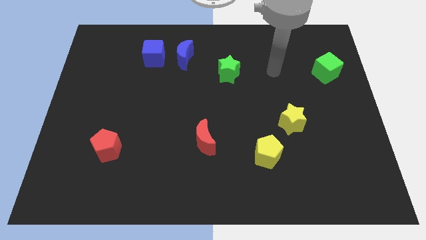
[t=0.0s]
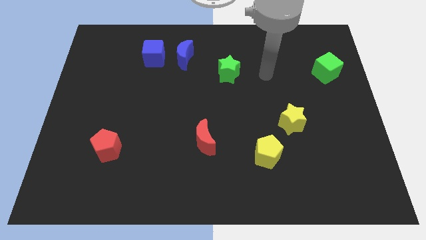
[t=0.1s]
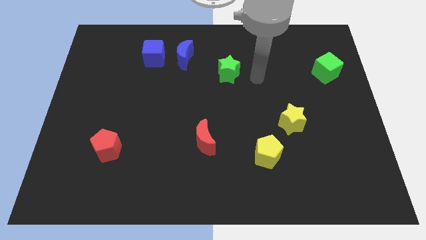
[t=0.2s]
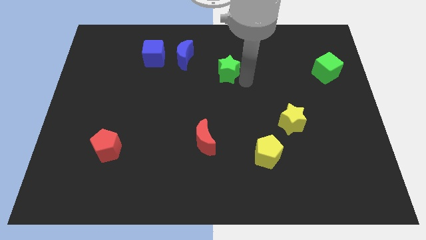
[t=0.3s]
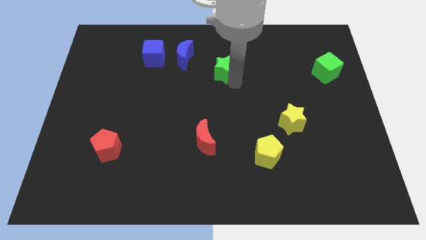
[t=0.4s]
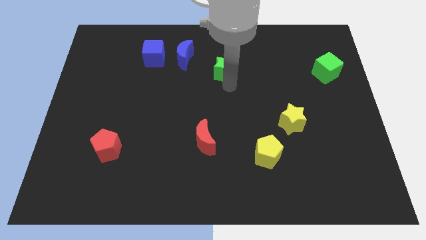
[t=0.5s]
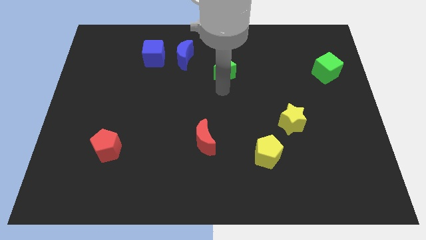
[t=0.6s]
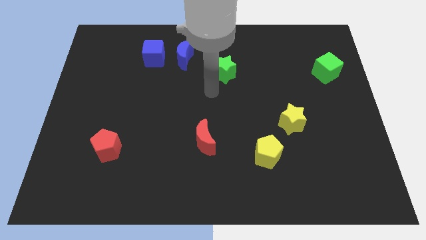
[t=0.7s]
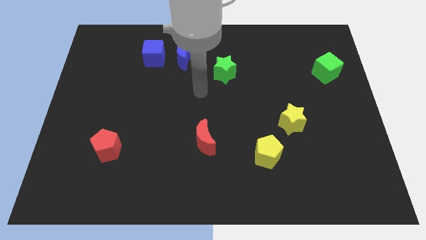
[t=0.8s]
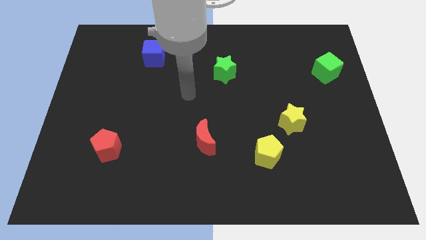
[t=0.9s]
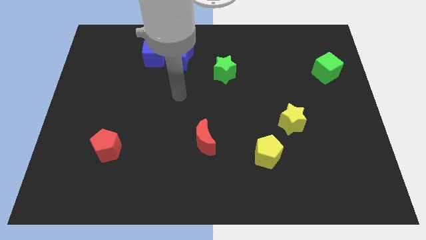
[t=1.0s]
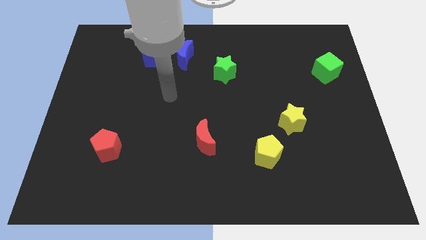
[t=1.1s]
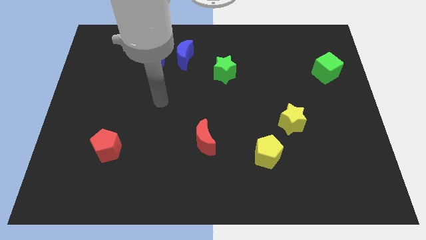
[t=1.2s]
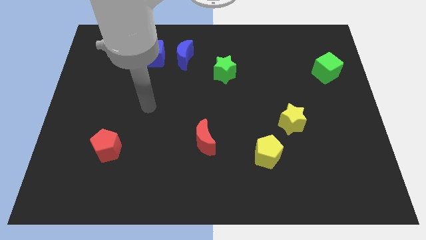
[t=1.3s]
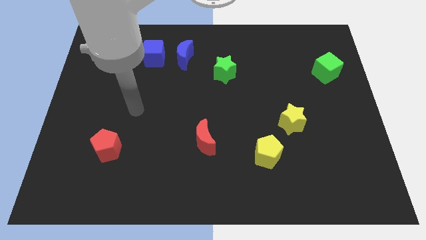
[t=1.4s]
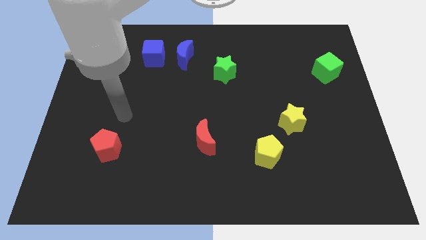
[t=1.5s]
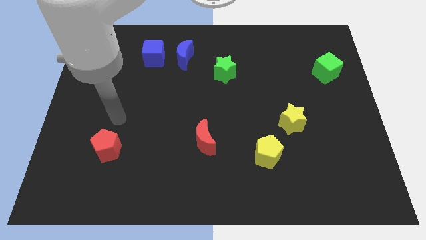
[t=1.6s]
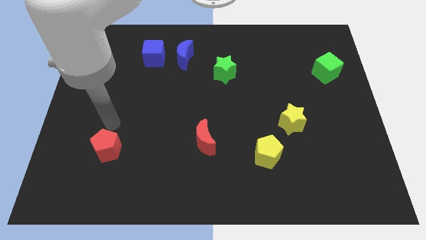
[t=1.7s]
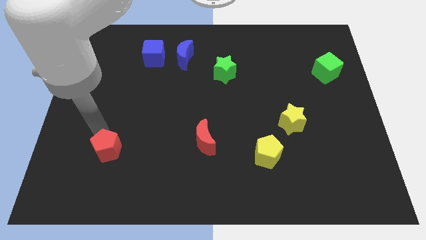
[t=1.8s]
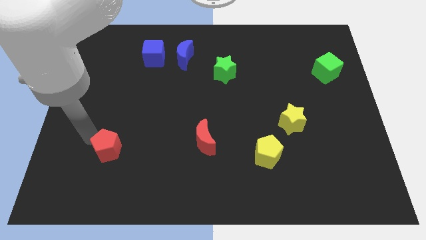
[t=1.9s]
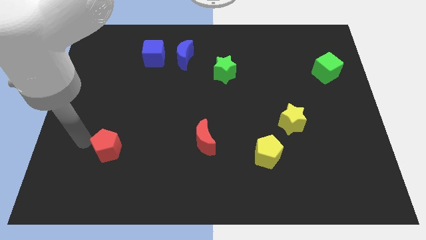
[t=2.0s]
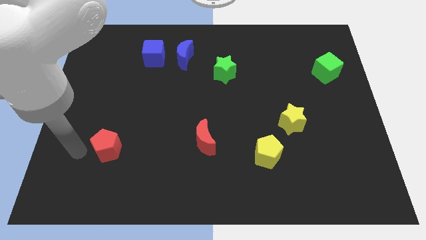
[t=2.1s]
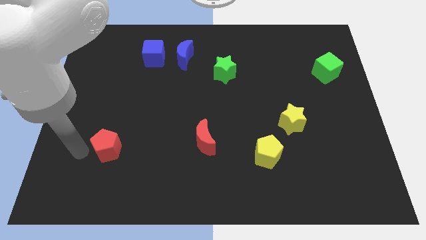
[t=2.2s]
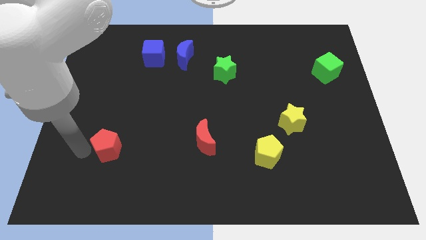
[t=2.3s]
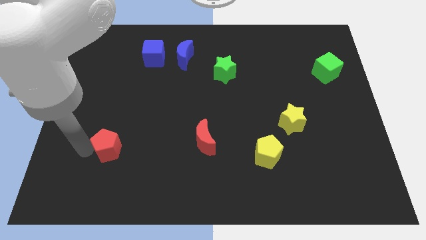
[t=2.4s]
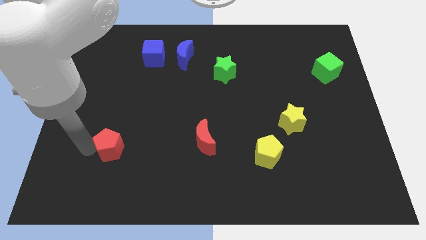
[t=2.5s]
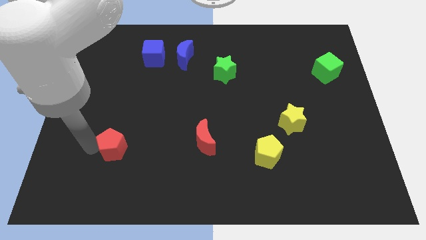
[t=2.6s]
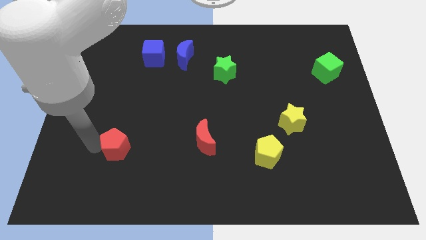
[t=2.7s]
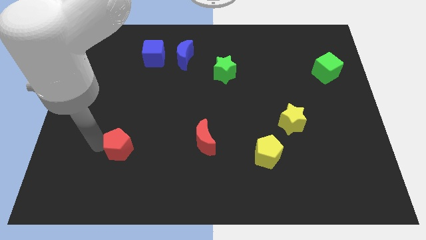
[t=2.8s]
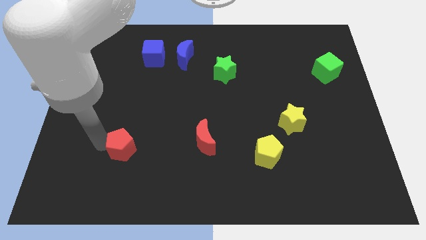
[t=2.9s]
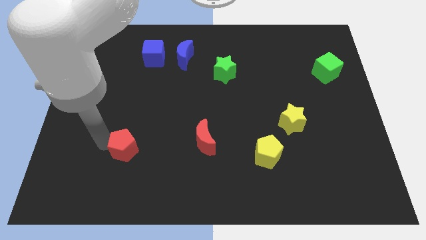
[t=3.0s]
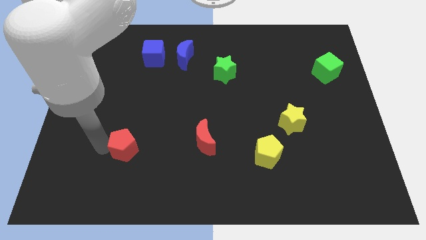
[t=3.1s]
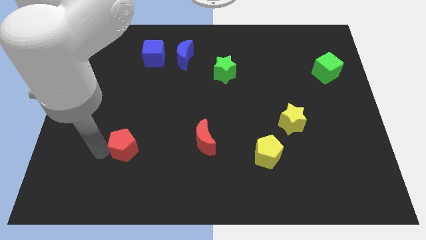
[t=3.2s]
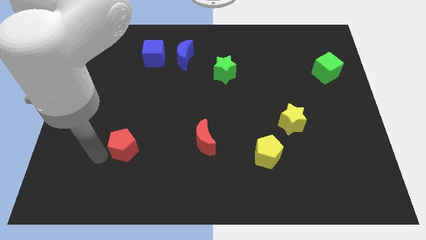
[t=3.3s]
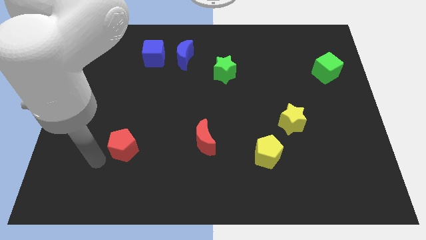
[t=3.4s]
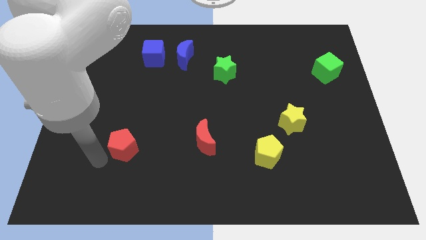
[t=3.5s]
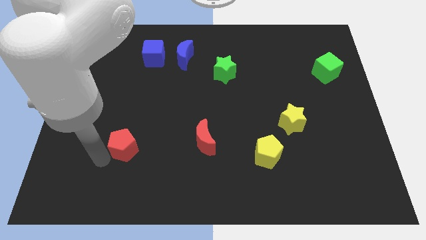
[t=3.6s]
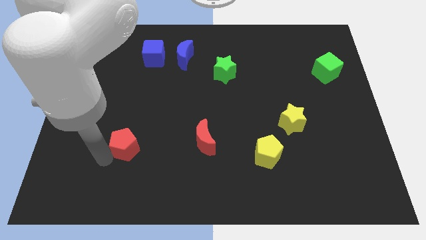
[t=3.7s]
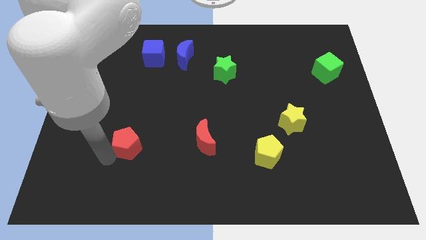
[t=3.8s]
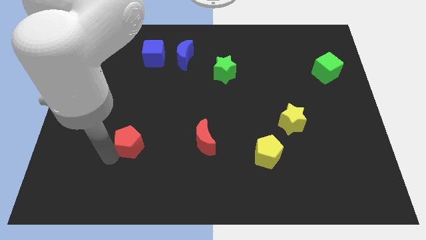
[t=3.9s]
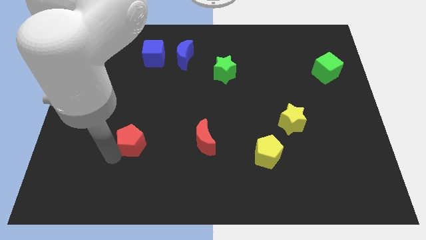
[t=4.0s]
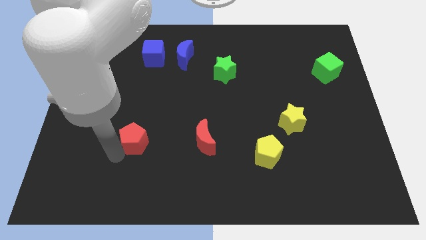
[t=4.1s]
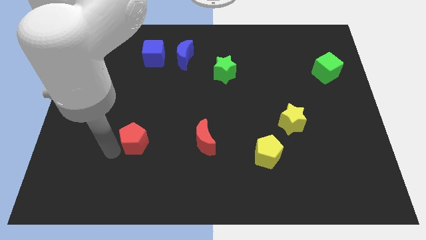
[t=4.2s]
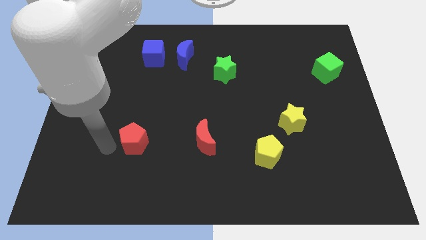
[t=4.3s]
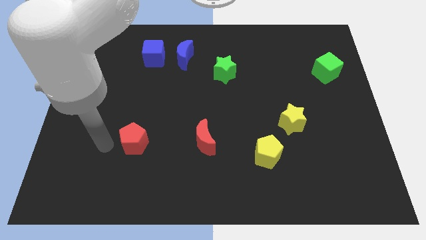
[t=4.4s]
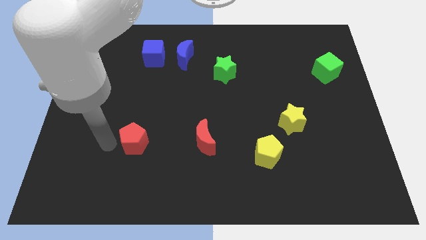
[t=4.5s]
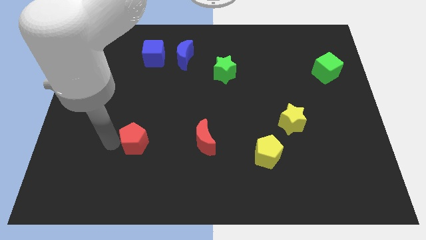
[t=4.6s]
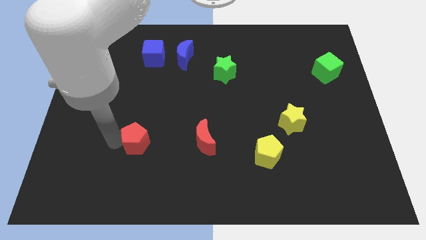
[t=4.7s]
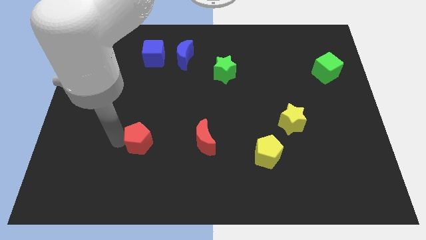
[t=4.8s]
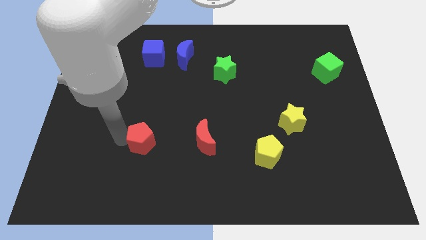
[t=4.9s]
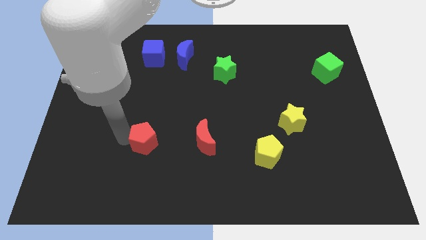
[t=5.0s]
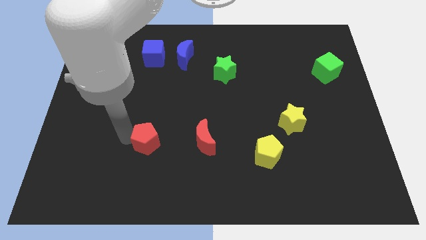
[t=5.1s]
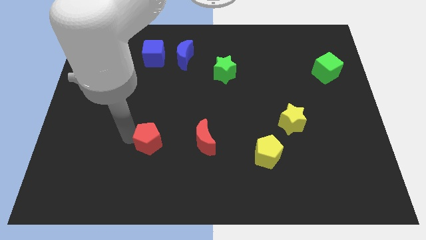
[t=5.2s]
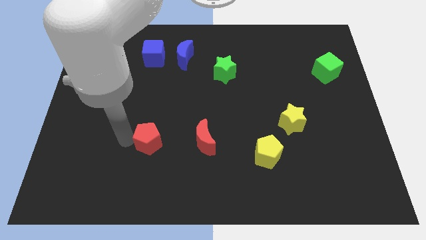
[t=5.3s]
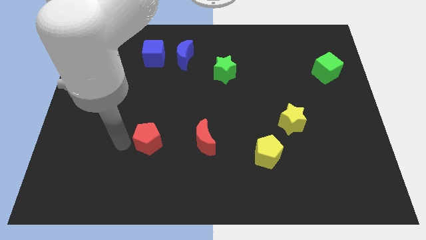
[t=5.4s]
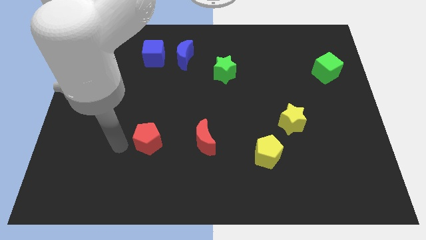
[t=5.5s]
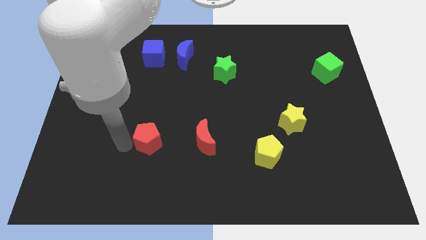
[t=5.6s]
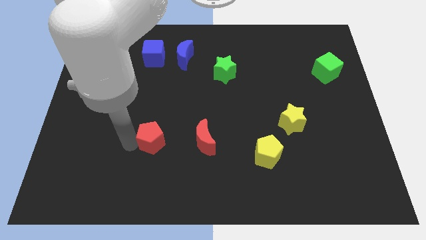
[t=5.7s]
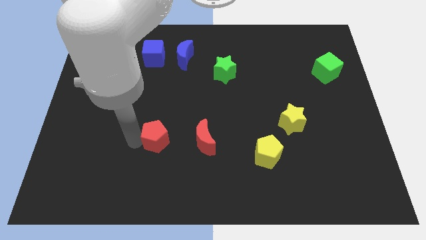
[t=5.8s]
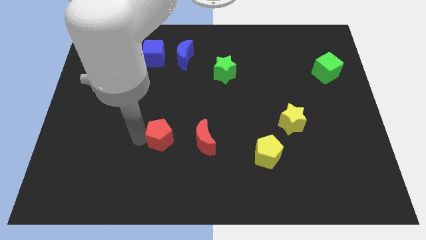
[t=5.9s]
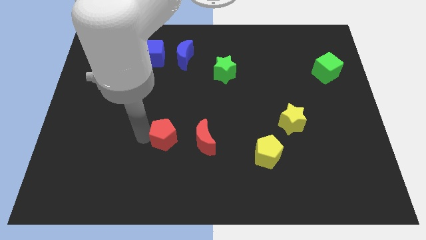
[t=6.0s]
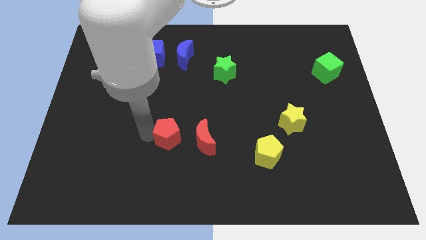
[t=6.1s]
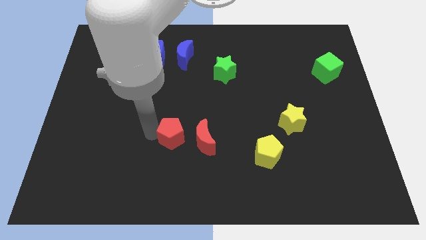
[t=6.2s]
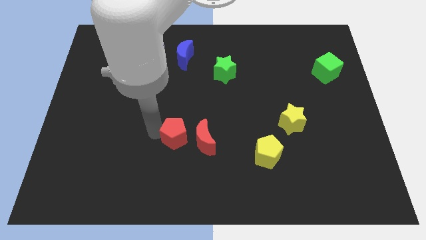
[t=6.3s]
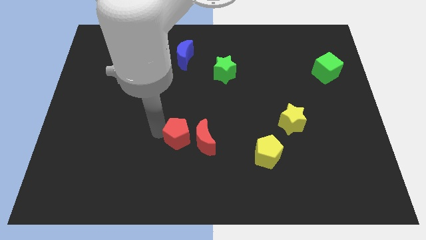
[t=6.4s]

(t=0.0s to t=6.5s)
slide the red pentagon towards the red moon
